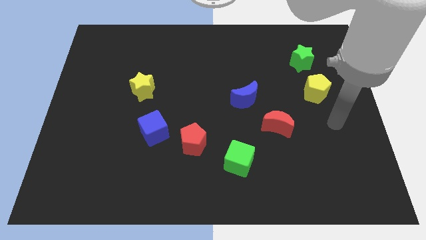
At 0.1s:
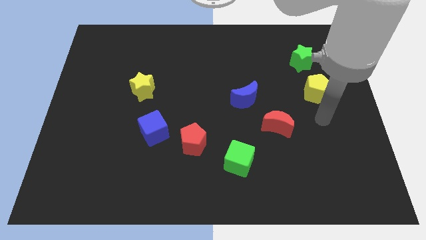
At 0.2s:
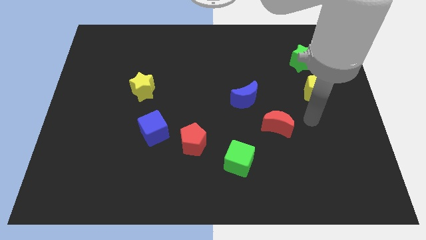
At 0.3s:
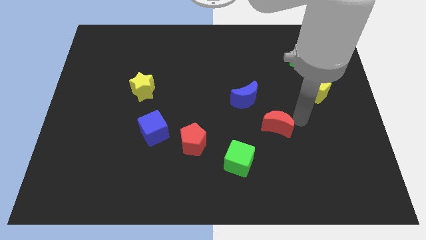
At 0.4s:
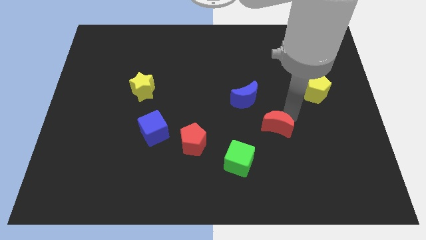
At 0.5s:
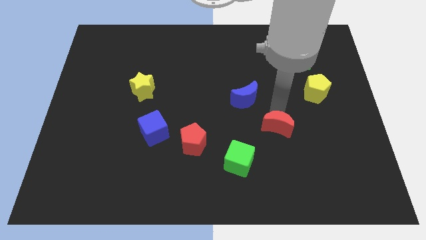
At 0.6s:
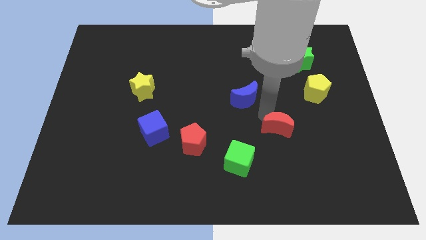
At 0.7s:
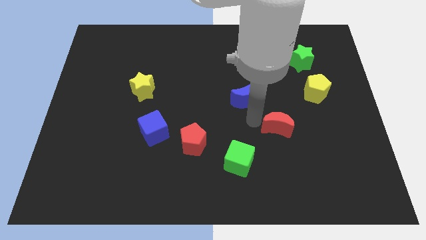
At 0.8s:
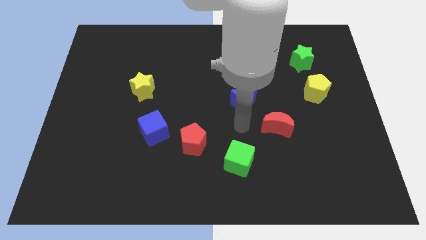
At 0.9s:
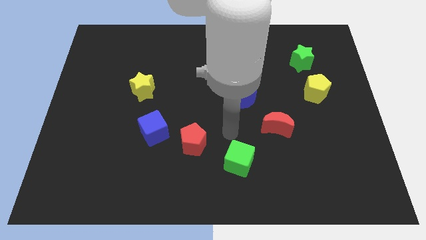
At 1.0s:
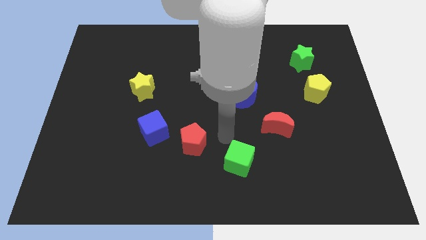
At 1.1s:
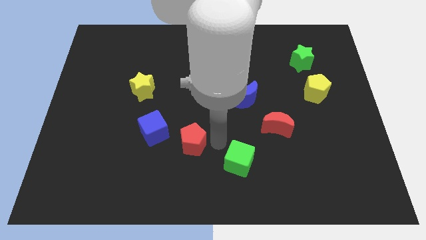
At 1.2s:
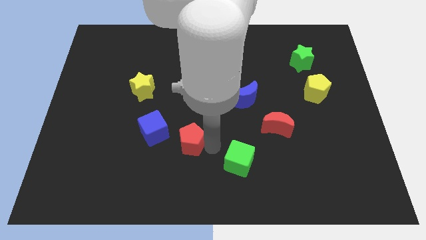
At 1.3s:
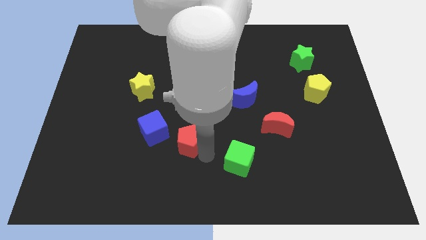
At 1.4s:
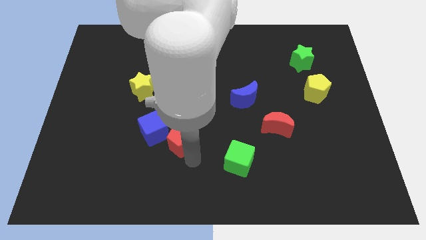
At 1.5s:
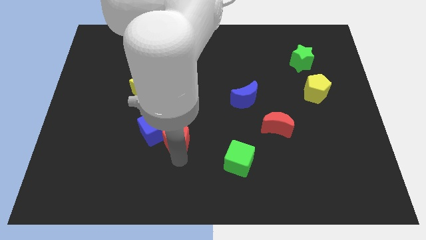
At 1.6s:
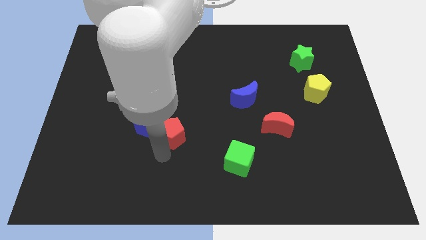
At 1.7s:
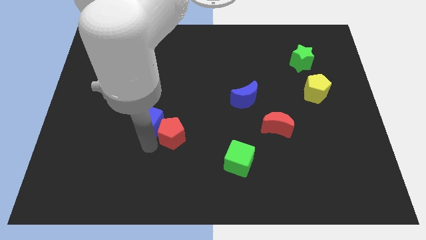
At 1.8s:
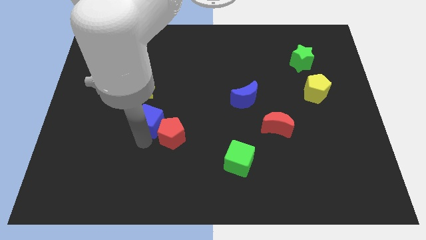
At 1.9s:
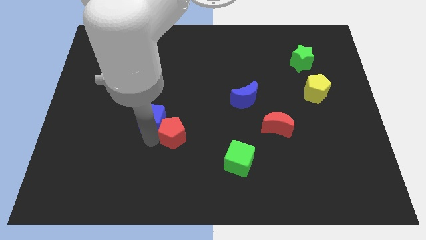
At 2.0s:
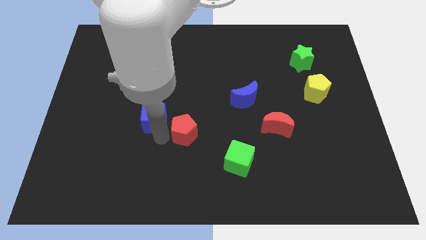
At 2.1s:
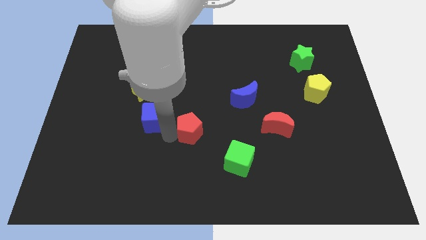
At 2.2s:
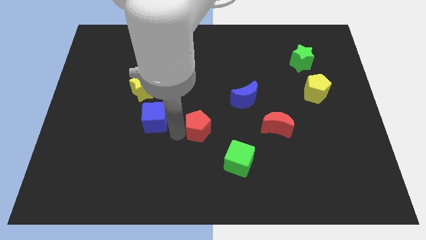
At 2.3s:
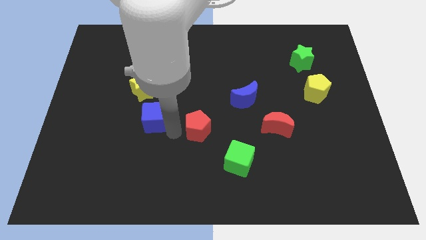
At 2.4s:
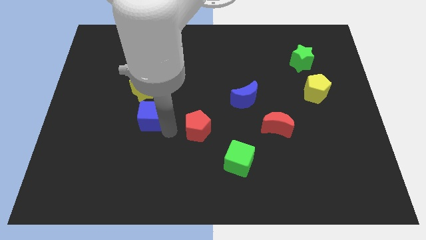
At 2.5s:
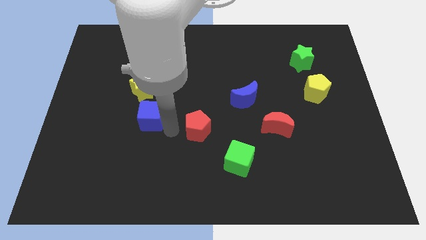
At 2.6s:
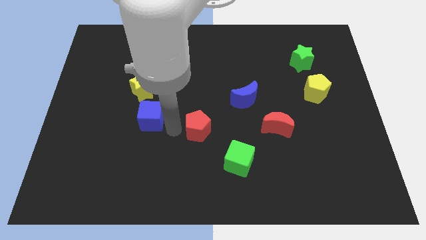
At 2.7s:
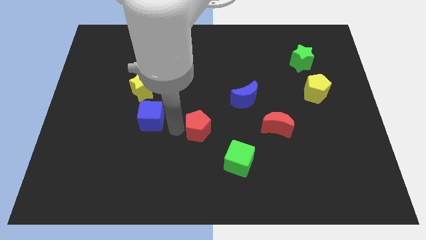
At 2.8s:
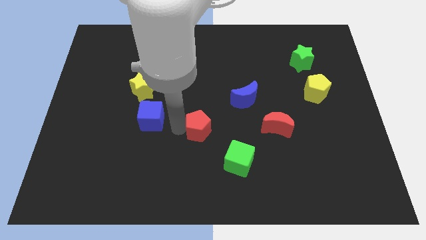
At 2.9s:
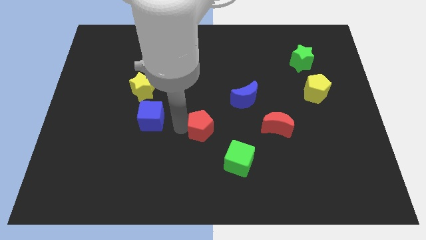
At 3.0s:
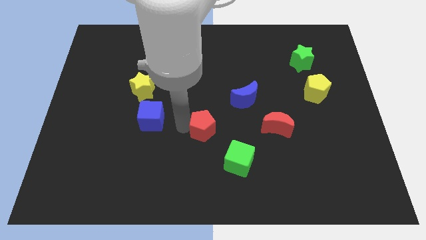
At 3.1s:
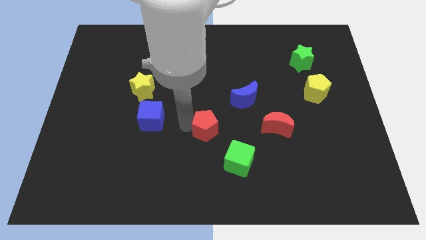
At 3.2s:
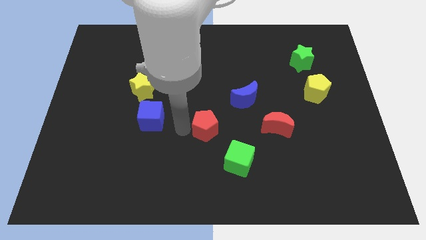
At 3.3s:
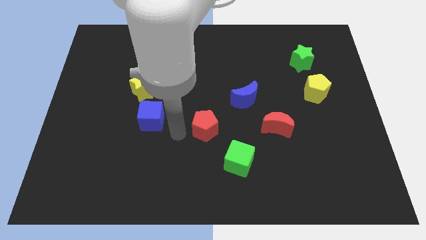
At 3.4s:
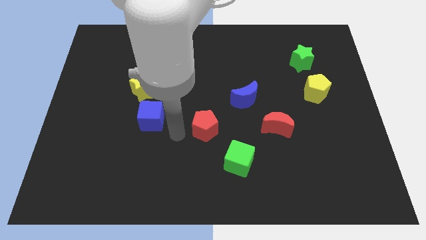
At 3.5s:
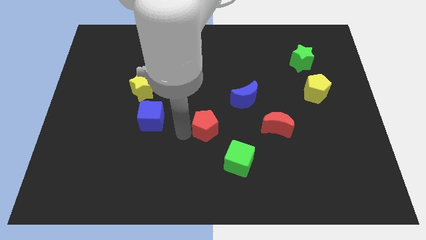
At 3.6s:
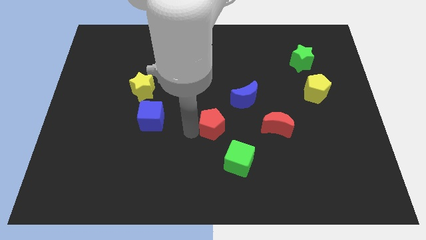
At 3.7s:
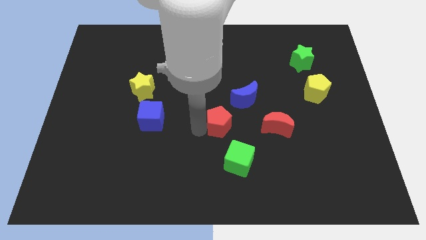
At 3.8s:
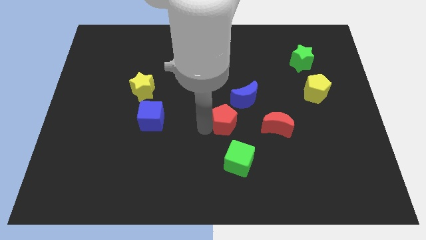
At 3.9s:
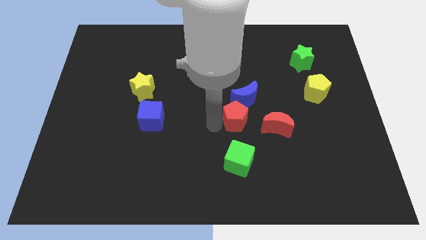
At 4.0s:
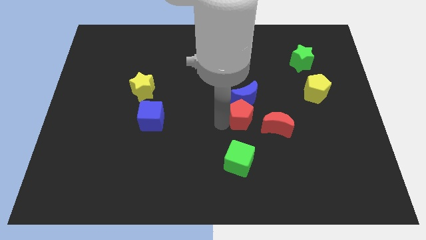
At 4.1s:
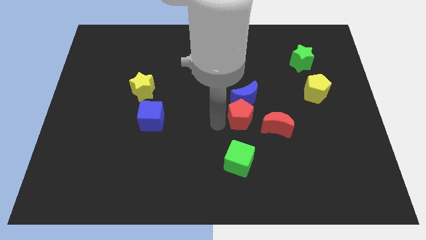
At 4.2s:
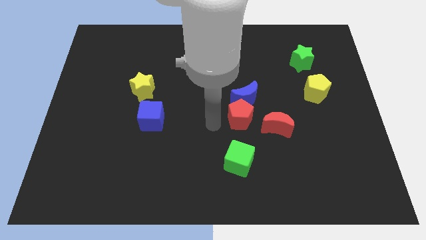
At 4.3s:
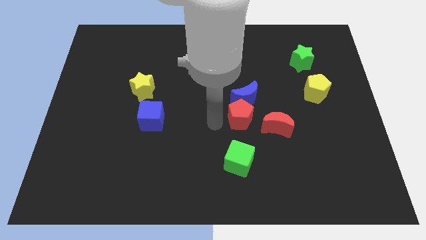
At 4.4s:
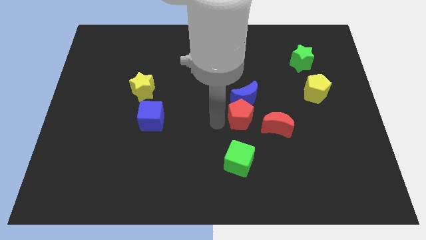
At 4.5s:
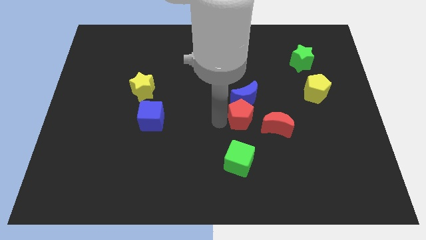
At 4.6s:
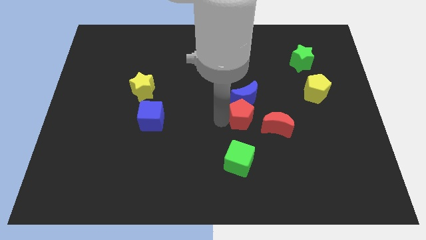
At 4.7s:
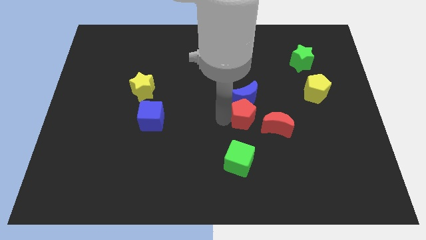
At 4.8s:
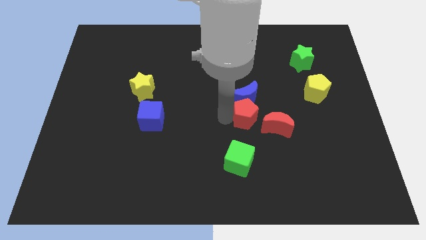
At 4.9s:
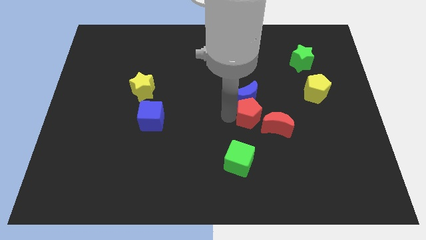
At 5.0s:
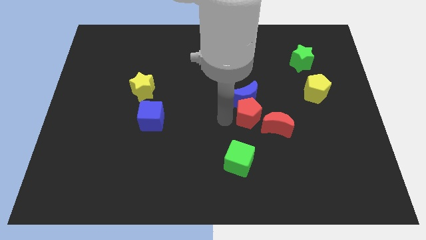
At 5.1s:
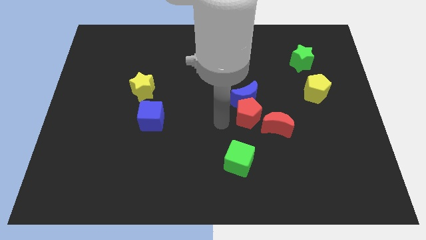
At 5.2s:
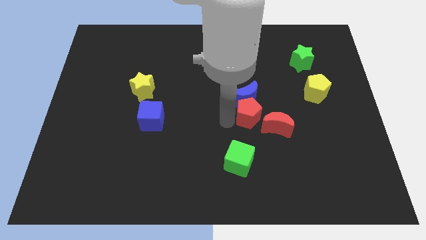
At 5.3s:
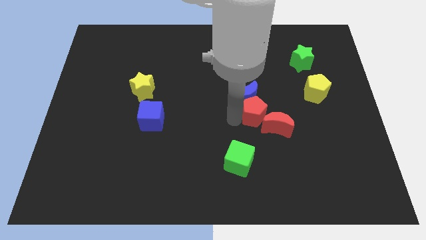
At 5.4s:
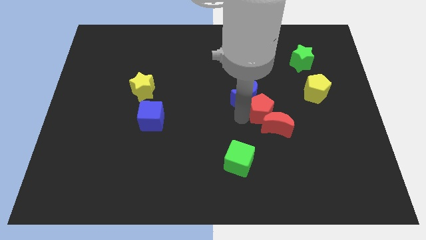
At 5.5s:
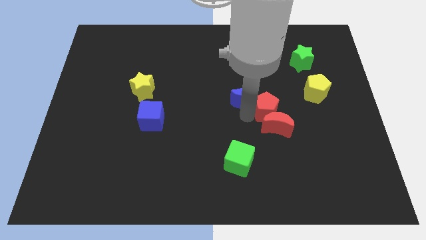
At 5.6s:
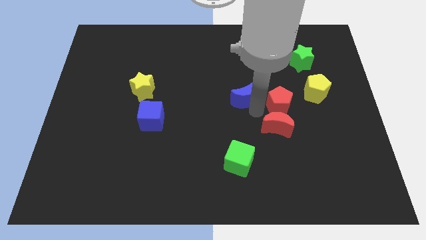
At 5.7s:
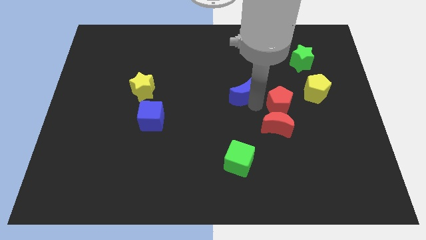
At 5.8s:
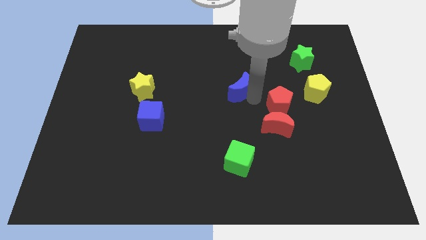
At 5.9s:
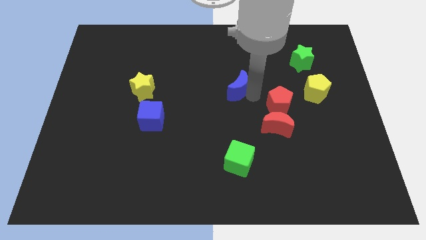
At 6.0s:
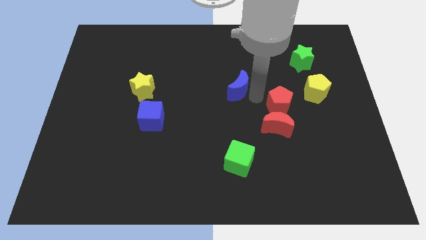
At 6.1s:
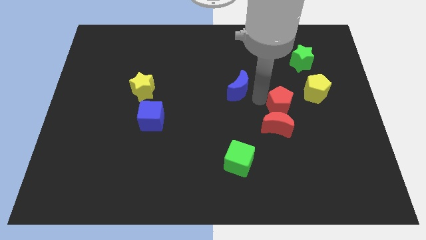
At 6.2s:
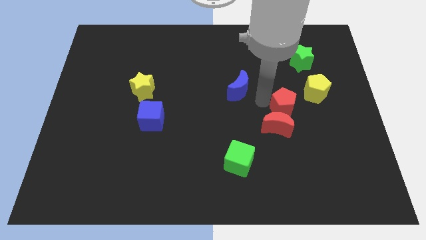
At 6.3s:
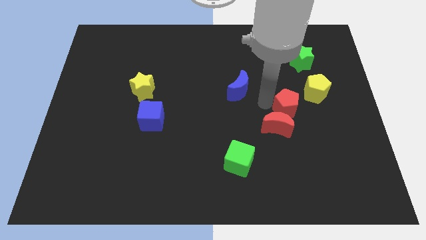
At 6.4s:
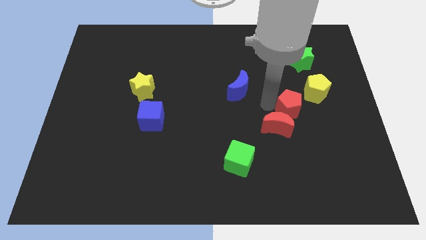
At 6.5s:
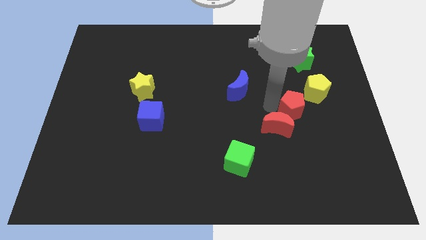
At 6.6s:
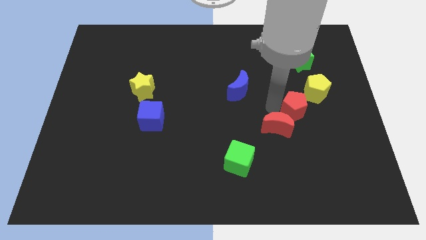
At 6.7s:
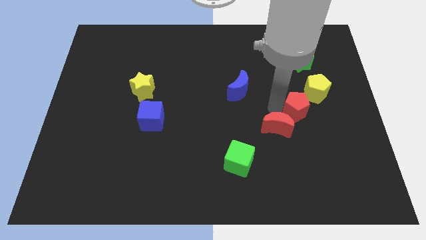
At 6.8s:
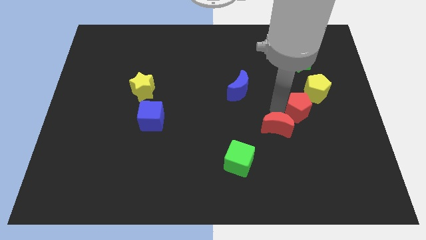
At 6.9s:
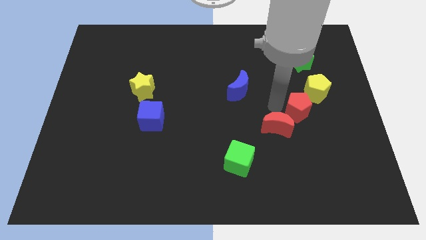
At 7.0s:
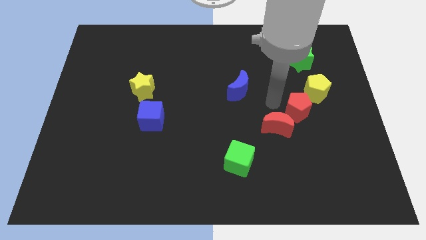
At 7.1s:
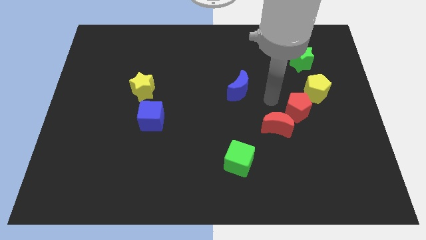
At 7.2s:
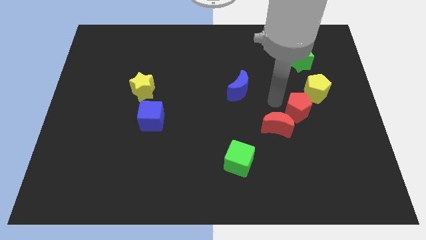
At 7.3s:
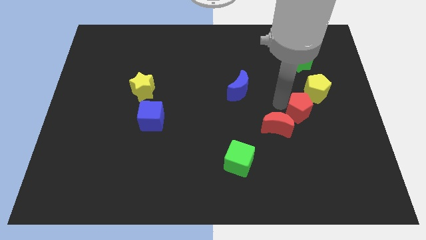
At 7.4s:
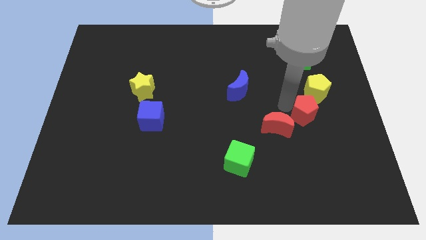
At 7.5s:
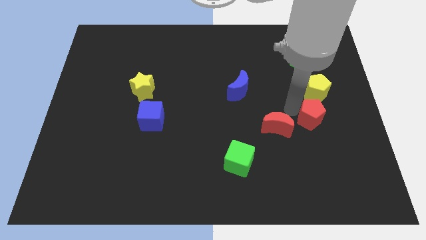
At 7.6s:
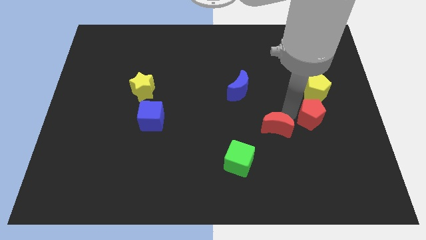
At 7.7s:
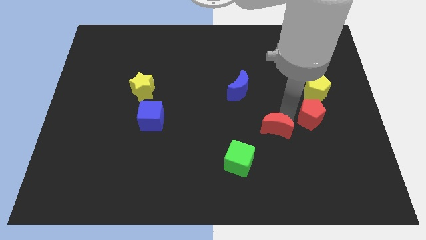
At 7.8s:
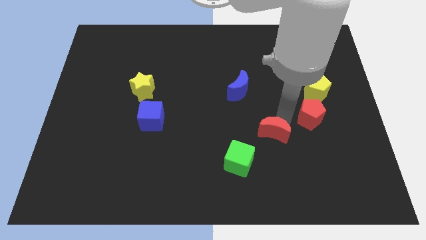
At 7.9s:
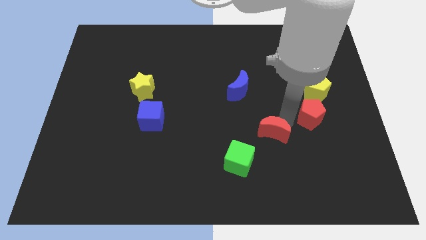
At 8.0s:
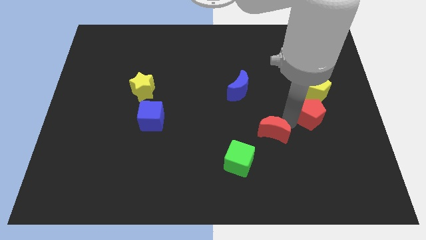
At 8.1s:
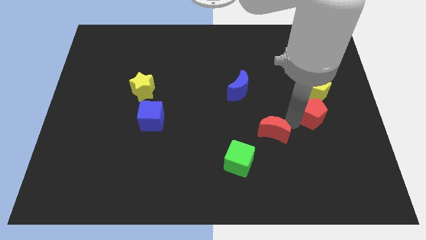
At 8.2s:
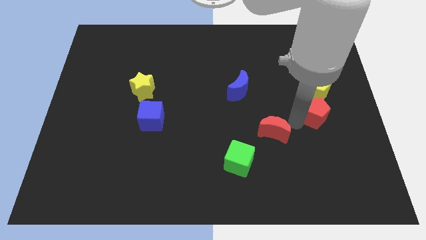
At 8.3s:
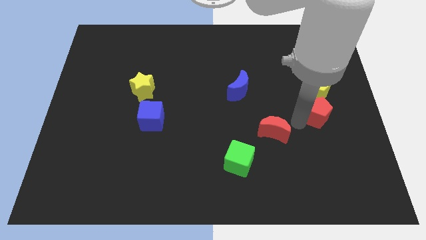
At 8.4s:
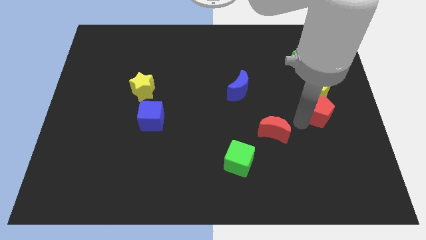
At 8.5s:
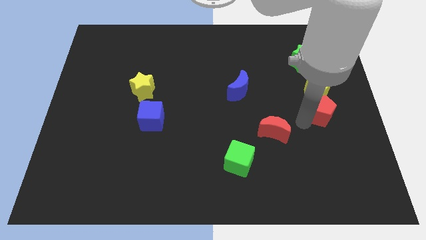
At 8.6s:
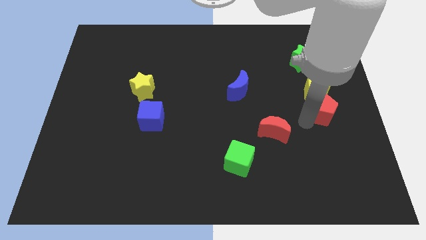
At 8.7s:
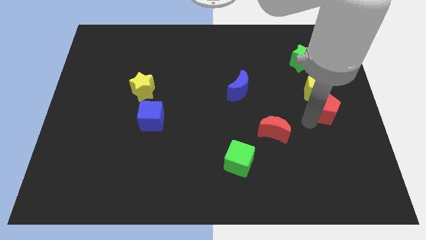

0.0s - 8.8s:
push the red pentagon to the right side
